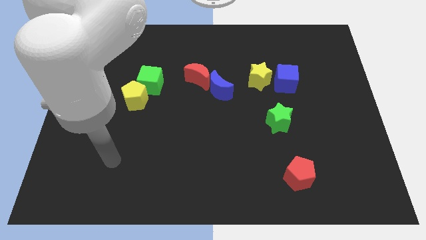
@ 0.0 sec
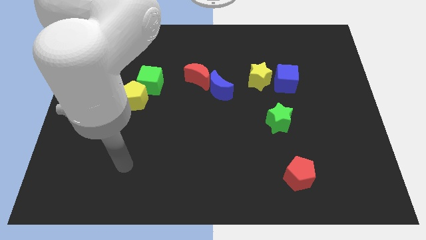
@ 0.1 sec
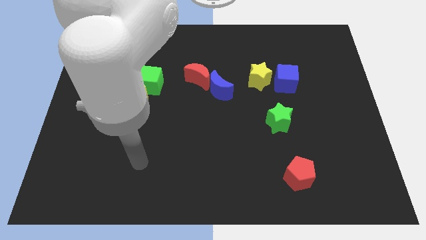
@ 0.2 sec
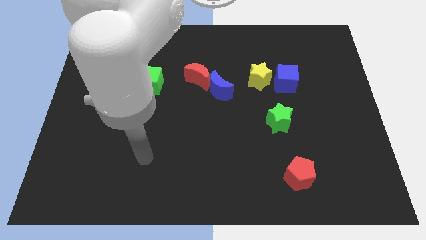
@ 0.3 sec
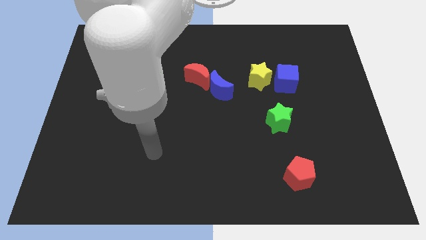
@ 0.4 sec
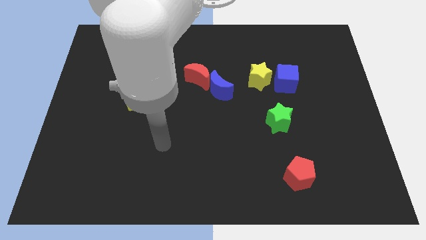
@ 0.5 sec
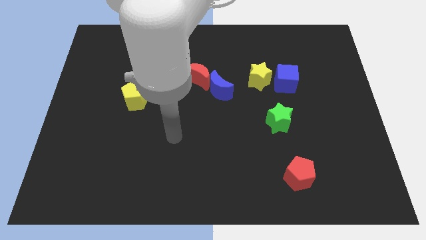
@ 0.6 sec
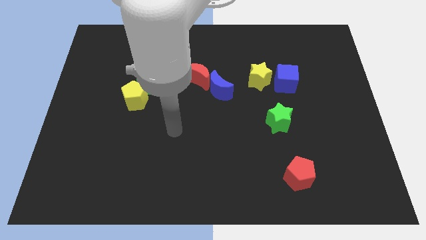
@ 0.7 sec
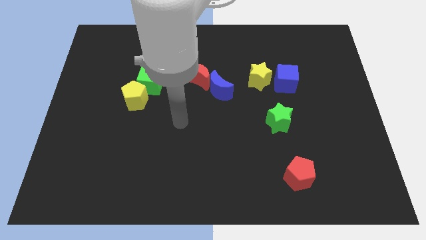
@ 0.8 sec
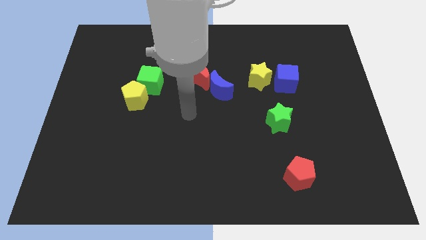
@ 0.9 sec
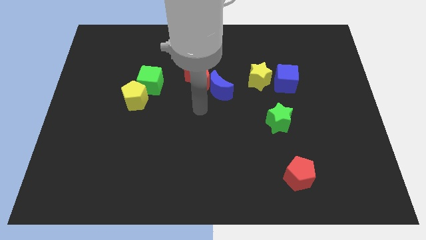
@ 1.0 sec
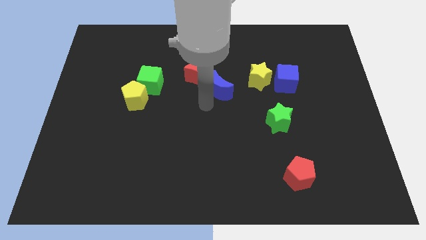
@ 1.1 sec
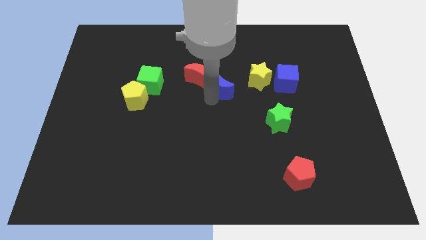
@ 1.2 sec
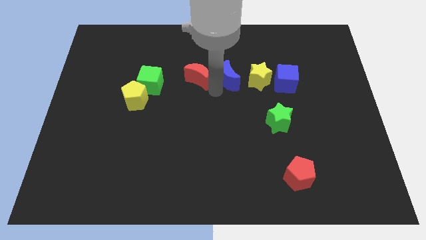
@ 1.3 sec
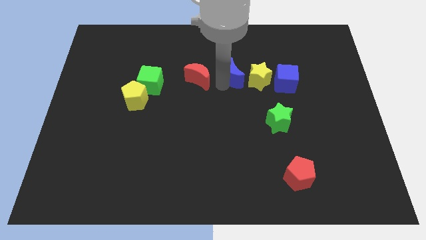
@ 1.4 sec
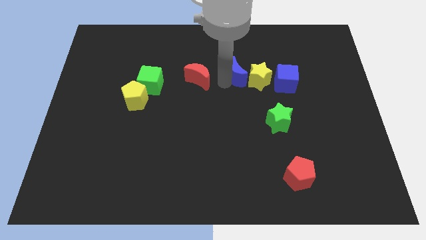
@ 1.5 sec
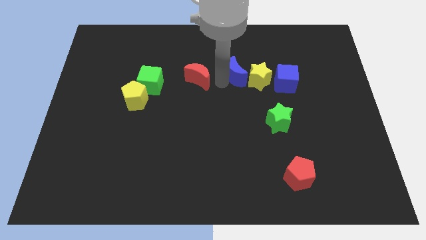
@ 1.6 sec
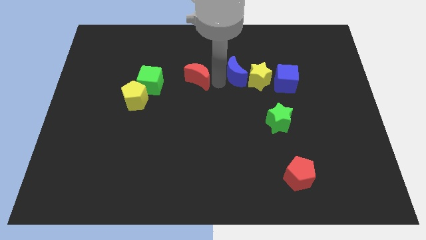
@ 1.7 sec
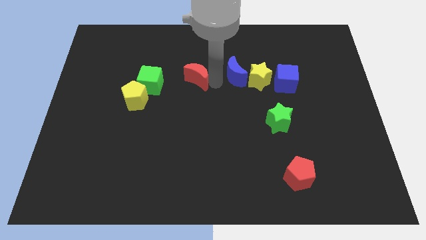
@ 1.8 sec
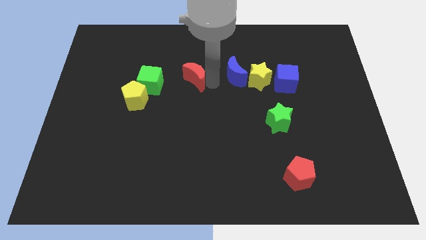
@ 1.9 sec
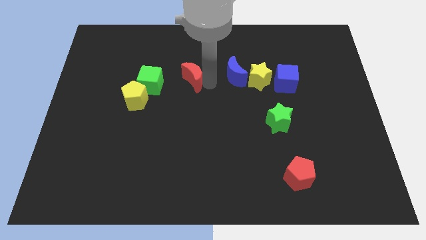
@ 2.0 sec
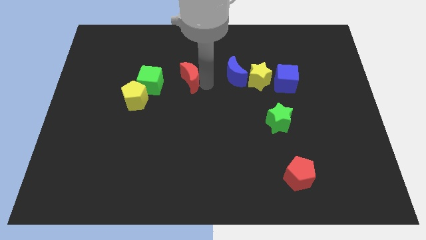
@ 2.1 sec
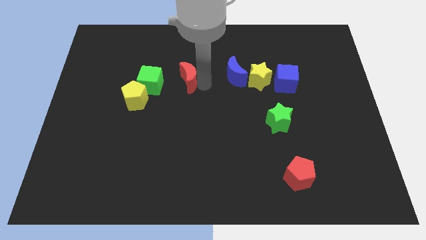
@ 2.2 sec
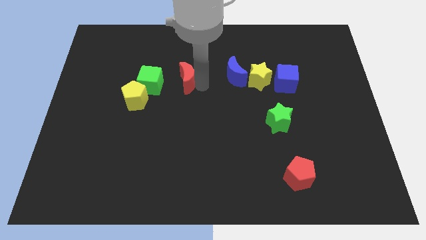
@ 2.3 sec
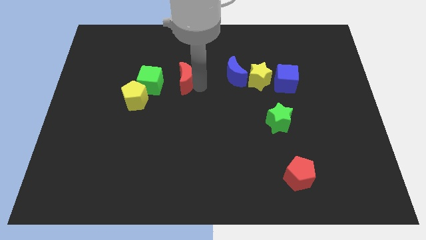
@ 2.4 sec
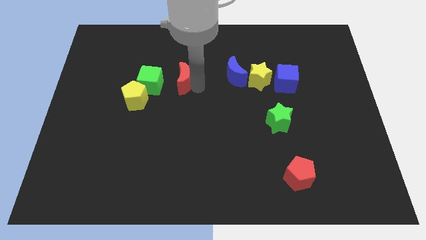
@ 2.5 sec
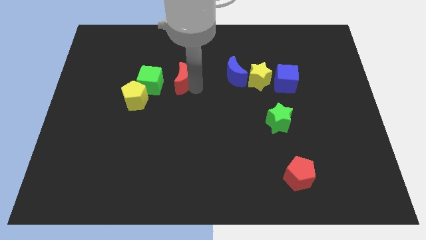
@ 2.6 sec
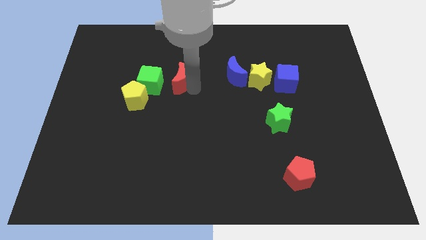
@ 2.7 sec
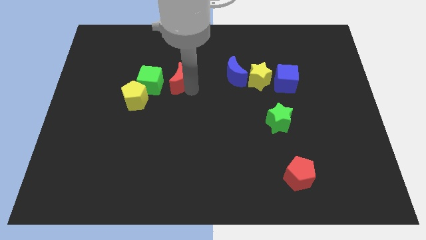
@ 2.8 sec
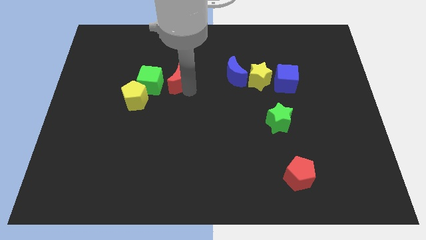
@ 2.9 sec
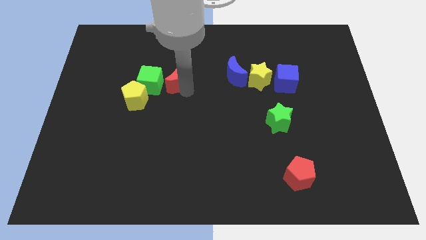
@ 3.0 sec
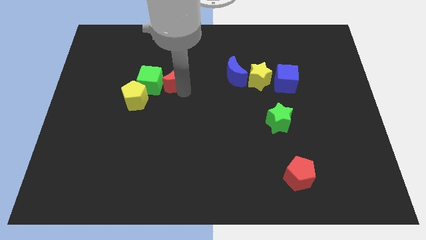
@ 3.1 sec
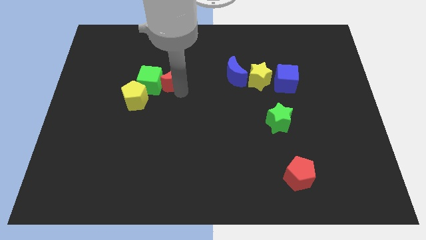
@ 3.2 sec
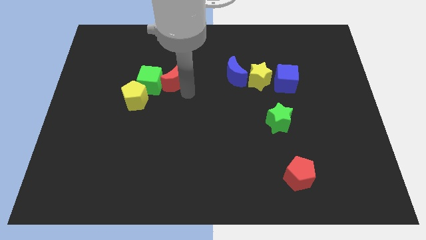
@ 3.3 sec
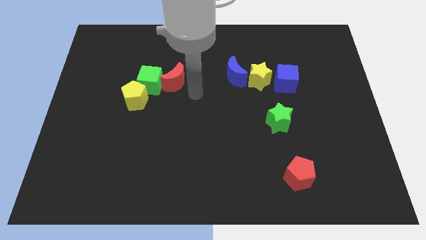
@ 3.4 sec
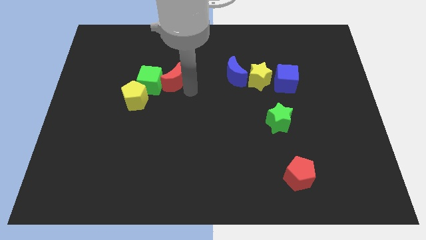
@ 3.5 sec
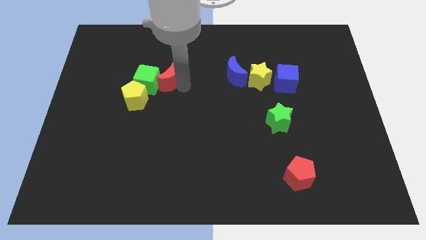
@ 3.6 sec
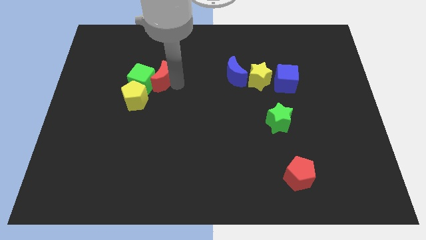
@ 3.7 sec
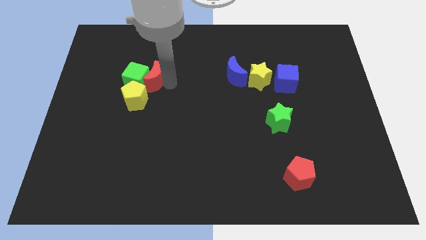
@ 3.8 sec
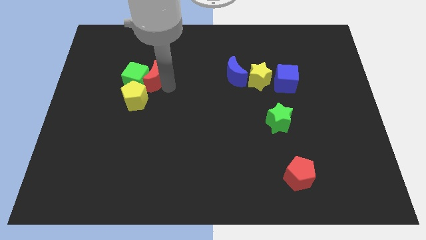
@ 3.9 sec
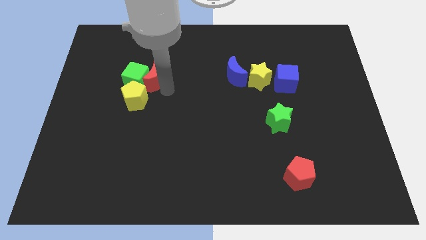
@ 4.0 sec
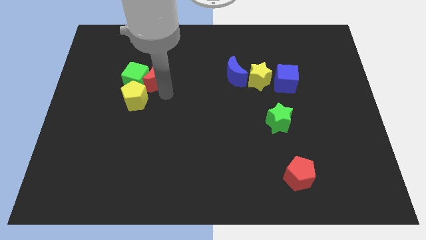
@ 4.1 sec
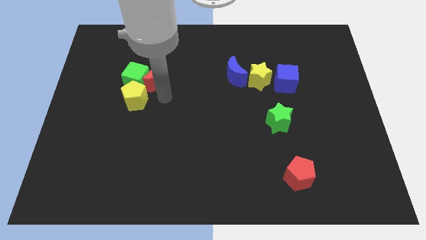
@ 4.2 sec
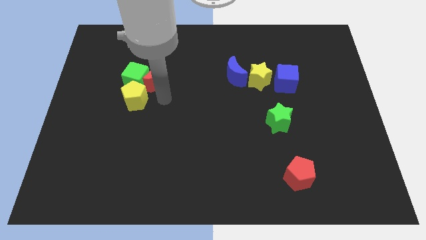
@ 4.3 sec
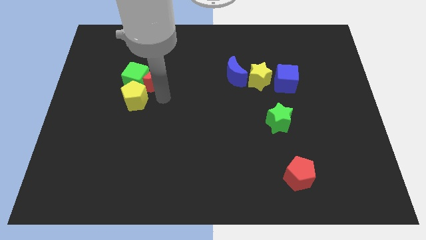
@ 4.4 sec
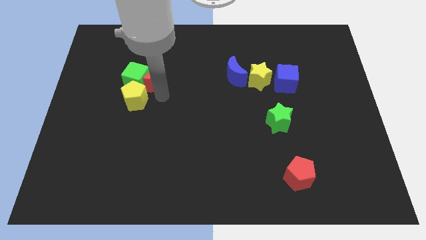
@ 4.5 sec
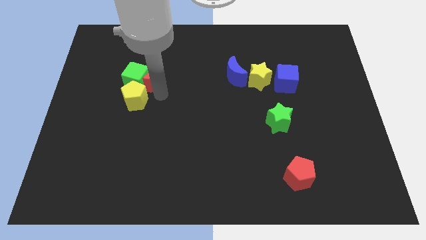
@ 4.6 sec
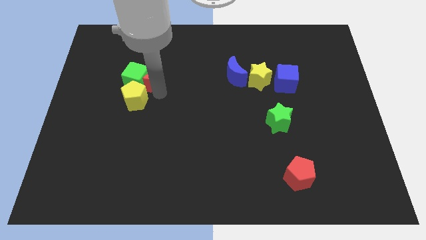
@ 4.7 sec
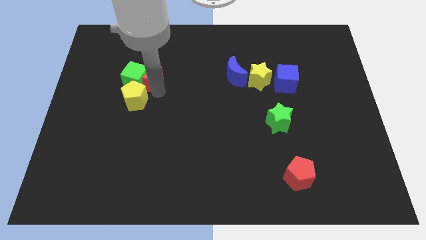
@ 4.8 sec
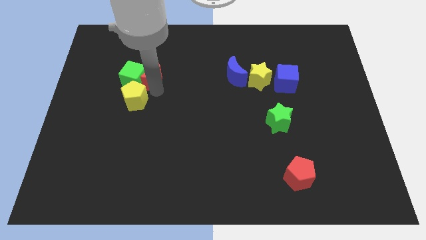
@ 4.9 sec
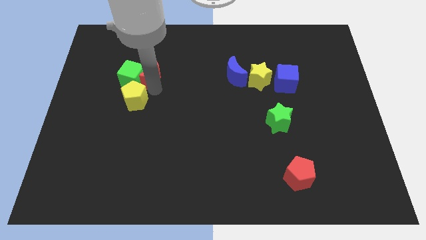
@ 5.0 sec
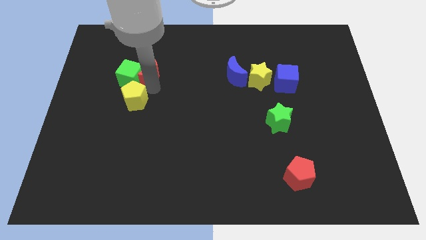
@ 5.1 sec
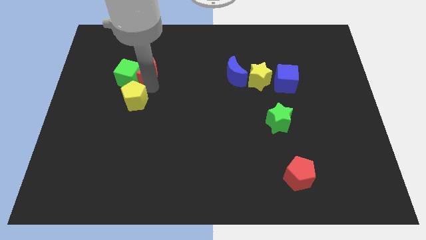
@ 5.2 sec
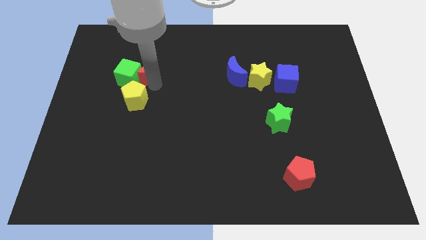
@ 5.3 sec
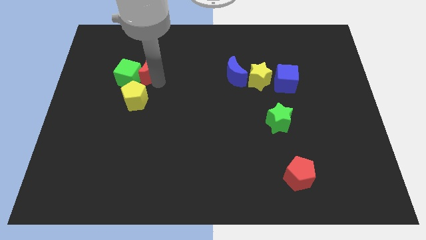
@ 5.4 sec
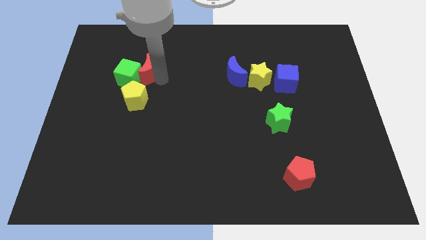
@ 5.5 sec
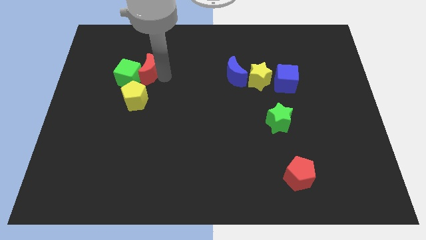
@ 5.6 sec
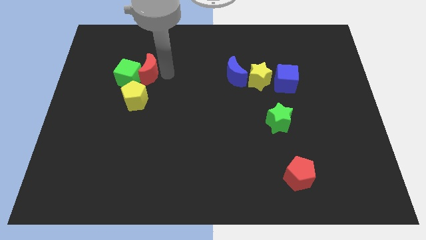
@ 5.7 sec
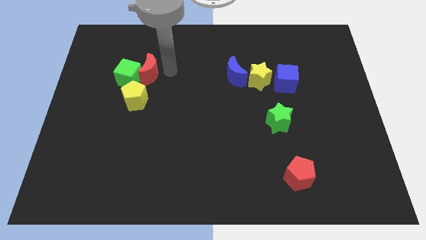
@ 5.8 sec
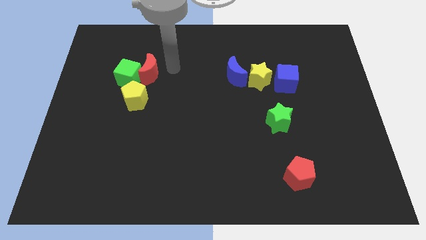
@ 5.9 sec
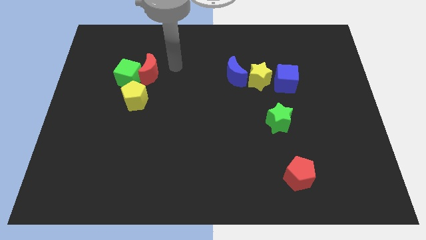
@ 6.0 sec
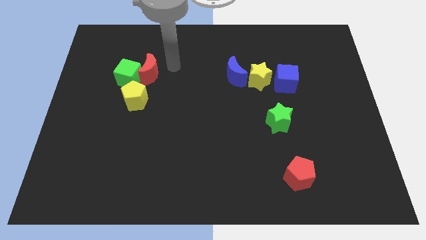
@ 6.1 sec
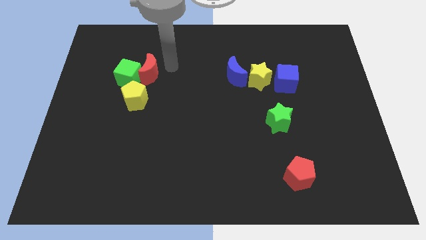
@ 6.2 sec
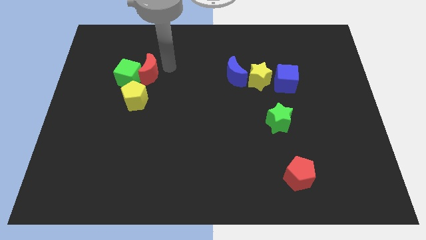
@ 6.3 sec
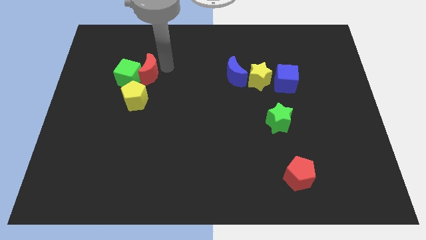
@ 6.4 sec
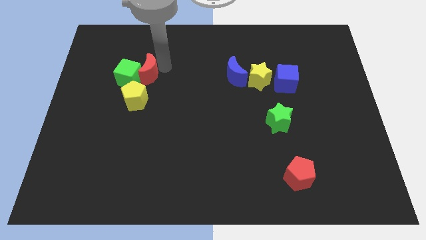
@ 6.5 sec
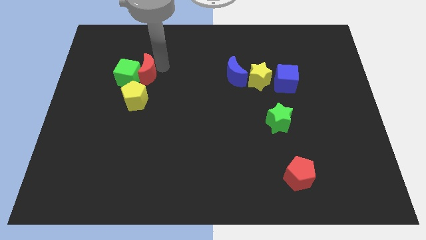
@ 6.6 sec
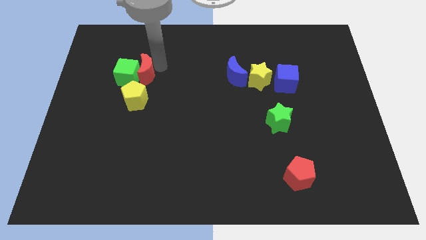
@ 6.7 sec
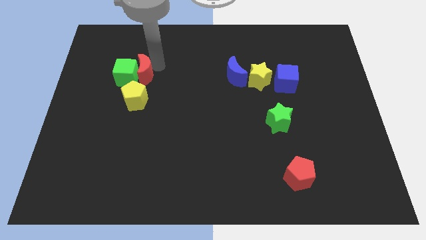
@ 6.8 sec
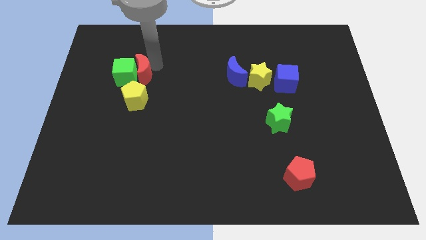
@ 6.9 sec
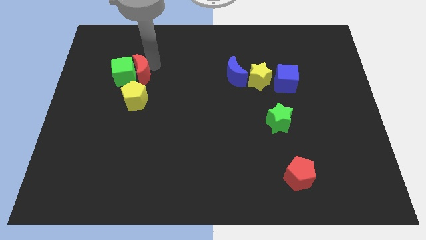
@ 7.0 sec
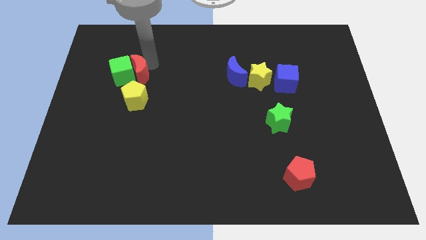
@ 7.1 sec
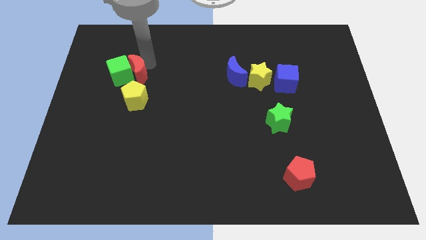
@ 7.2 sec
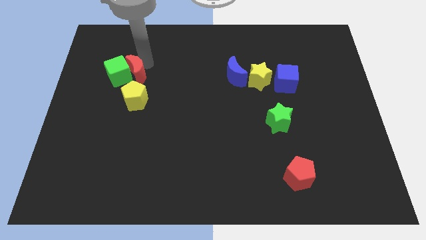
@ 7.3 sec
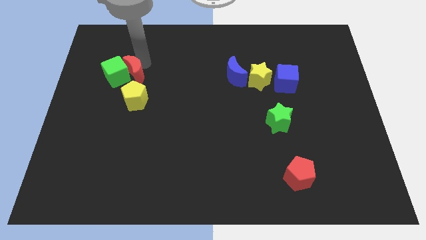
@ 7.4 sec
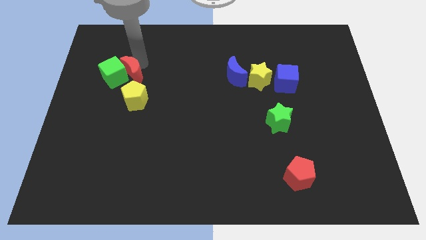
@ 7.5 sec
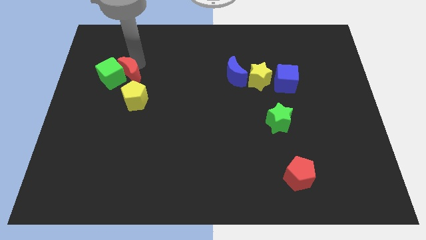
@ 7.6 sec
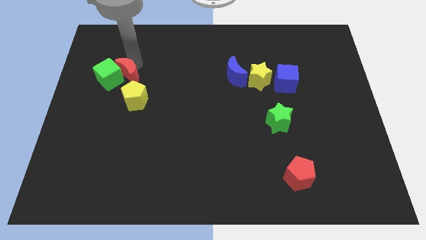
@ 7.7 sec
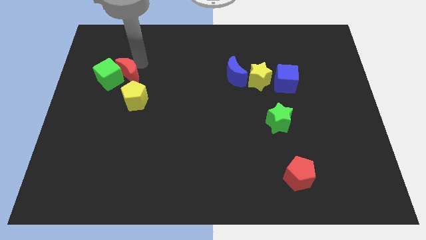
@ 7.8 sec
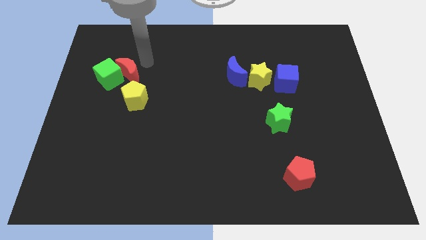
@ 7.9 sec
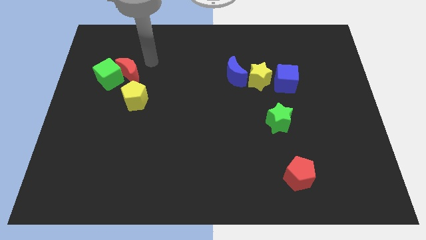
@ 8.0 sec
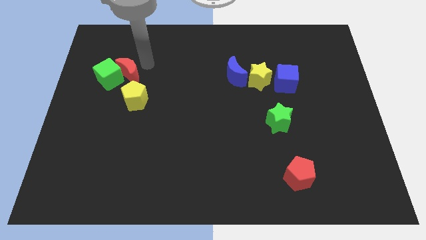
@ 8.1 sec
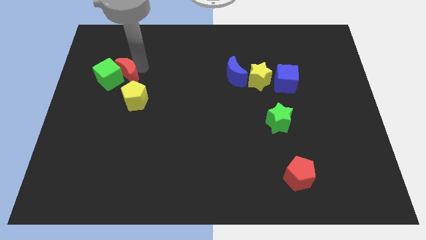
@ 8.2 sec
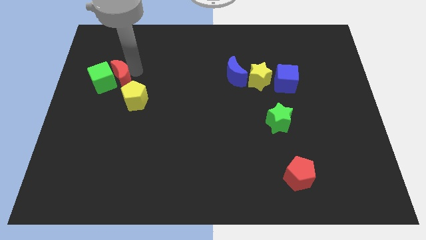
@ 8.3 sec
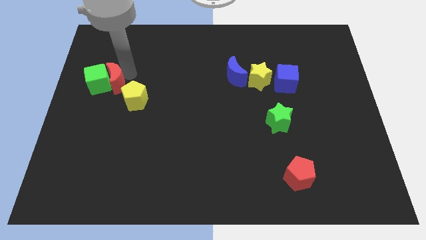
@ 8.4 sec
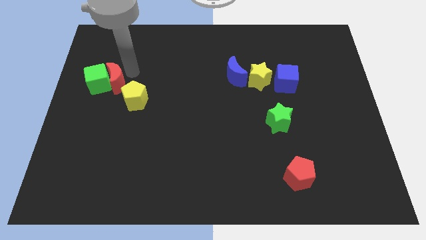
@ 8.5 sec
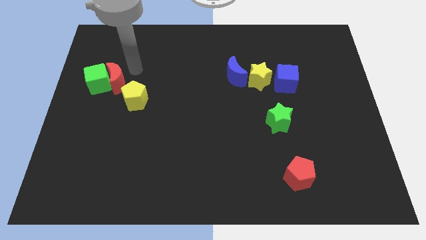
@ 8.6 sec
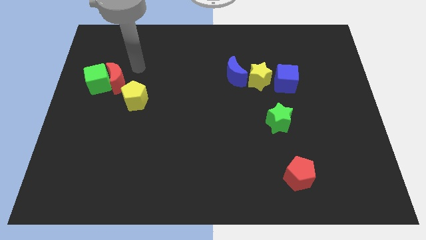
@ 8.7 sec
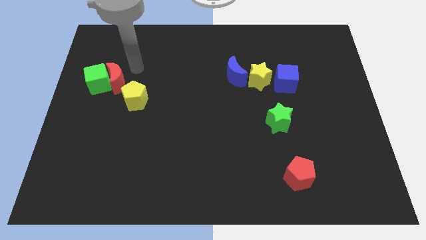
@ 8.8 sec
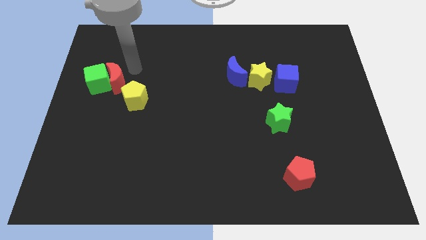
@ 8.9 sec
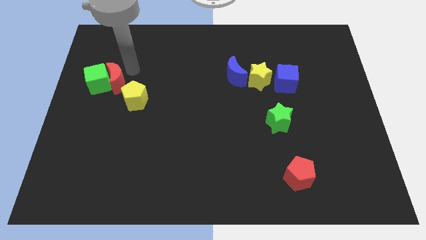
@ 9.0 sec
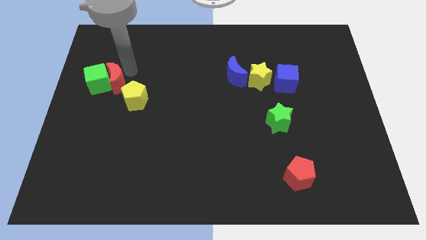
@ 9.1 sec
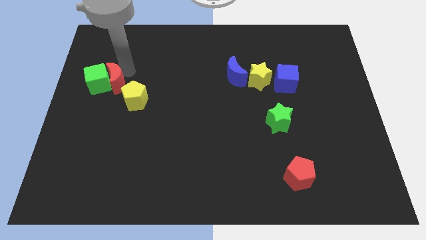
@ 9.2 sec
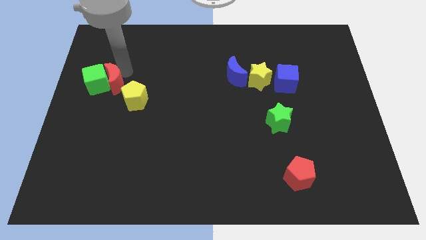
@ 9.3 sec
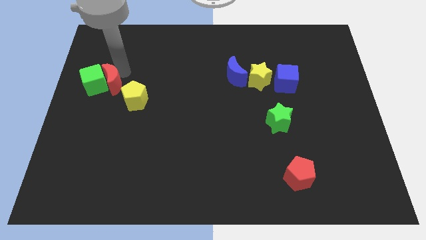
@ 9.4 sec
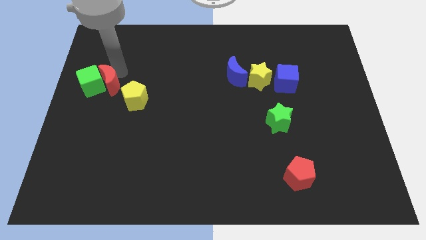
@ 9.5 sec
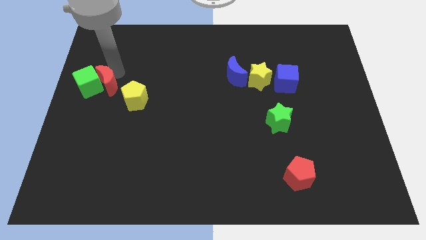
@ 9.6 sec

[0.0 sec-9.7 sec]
move the red moon to the left side
